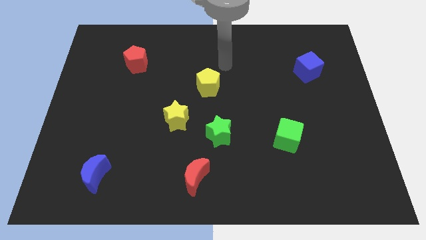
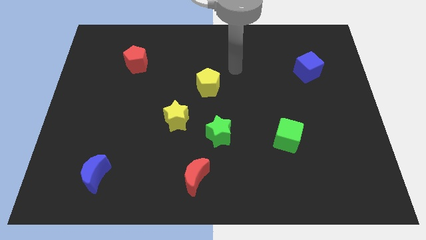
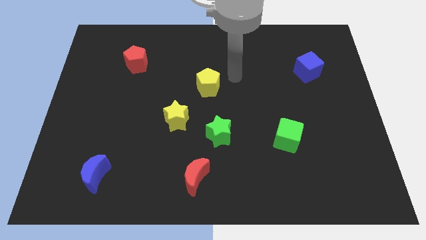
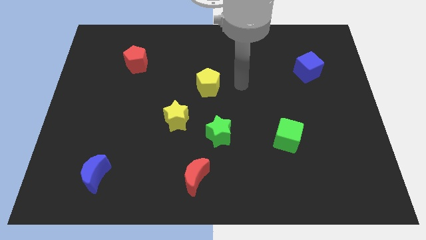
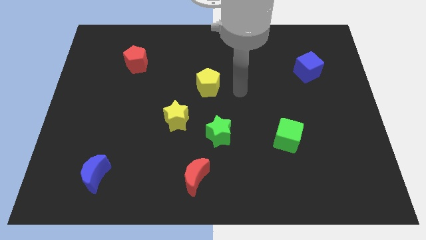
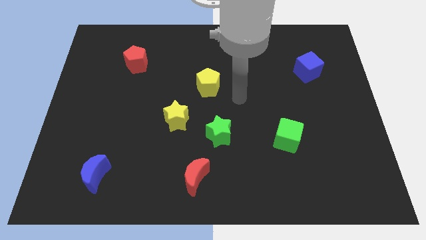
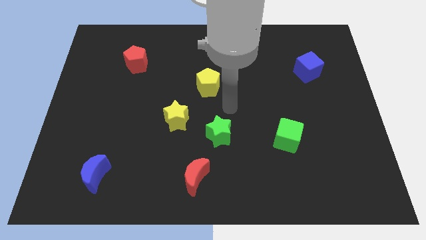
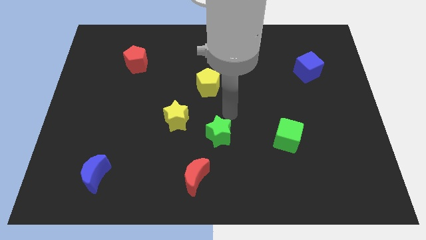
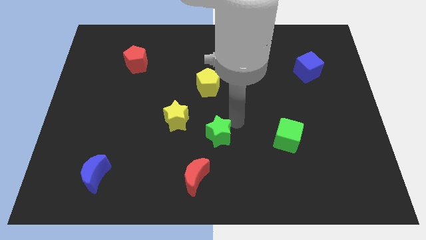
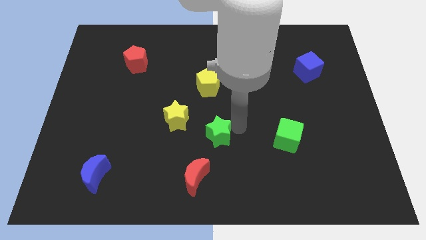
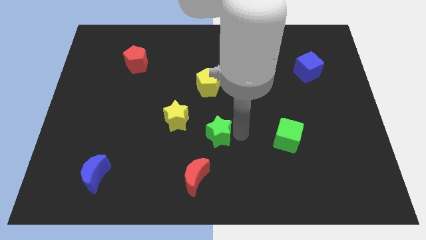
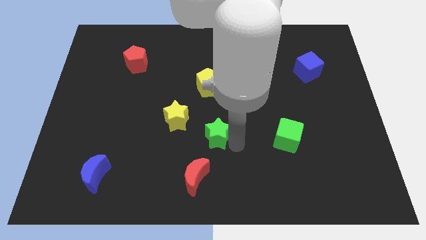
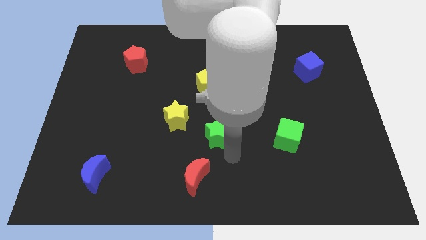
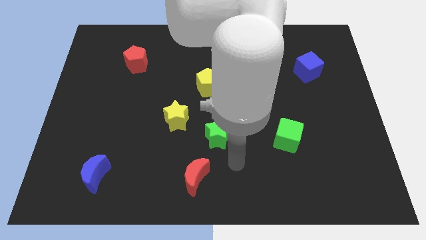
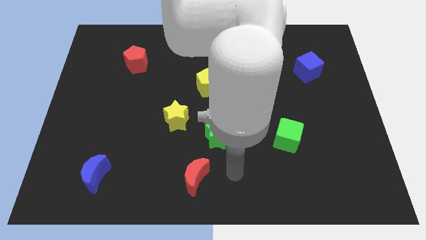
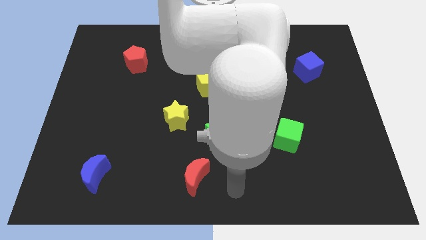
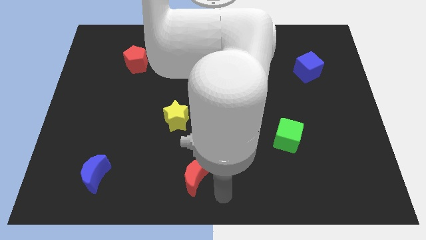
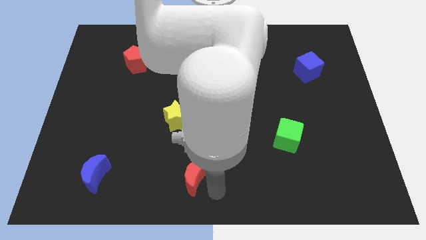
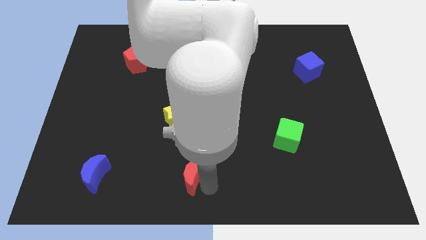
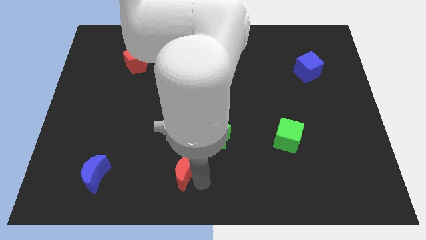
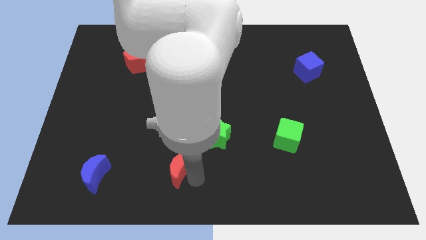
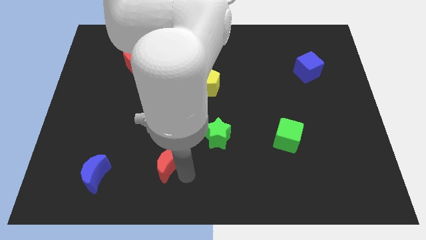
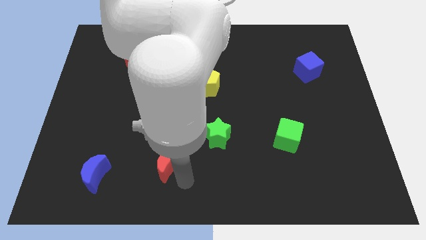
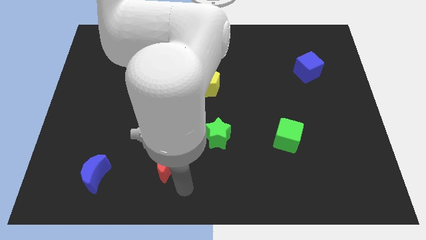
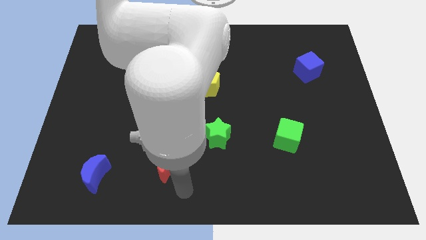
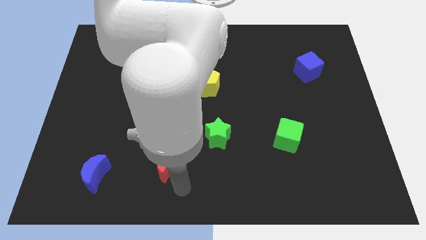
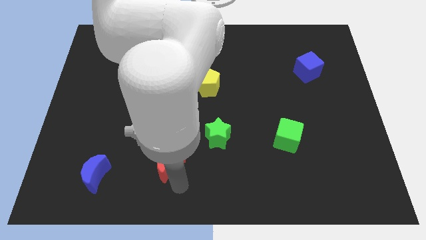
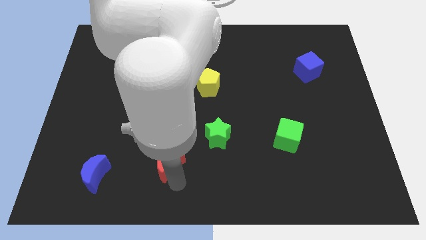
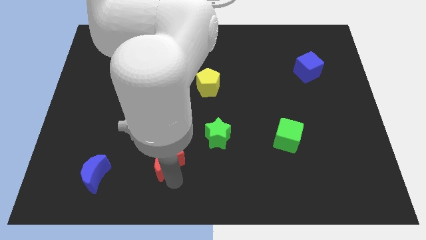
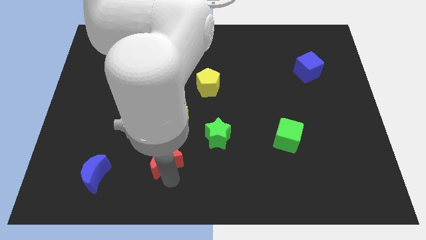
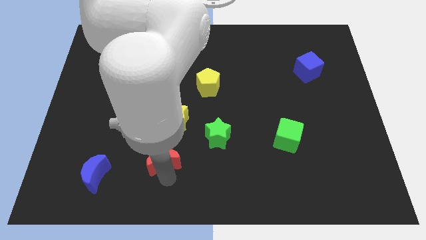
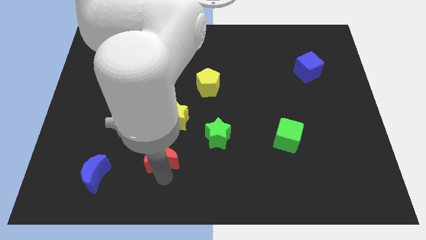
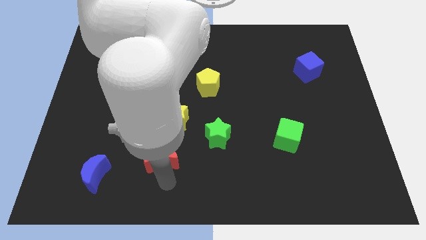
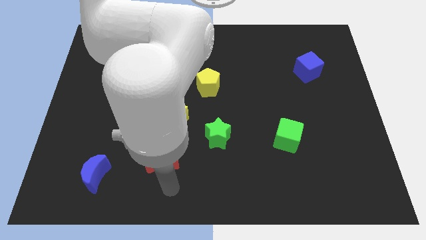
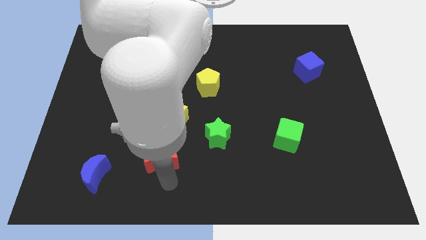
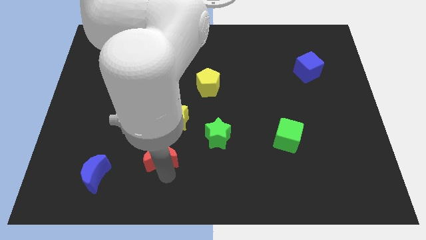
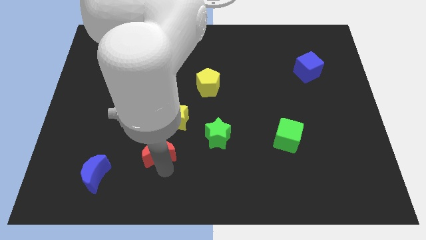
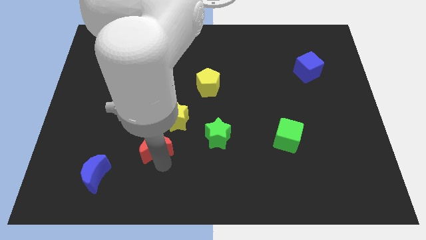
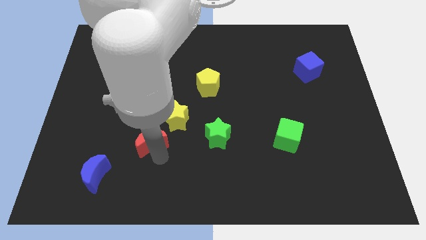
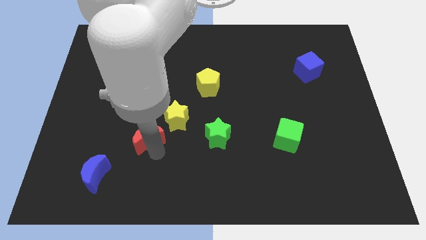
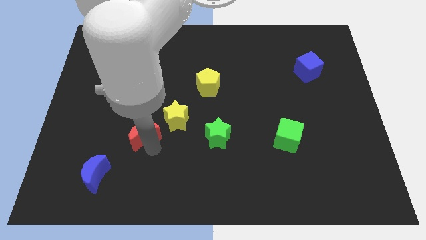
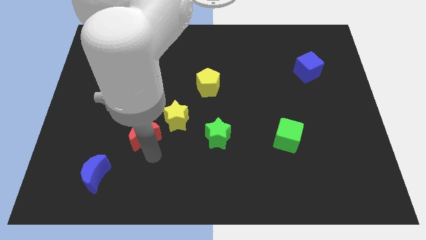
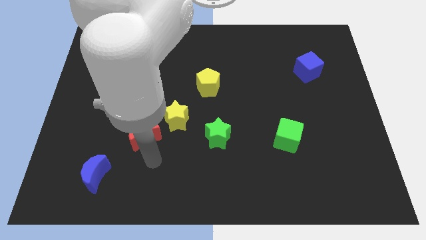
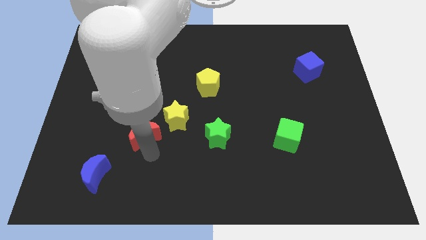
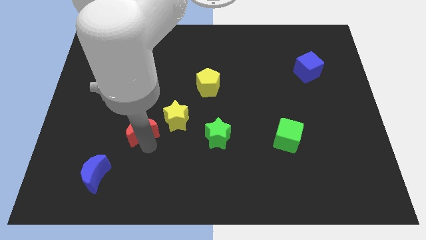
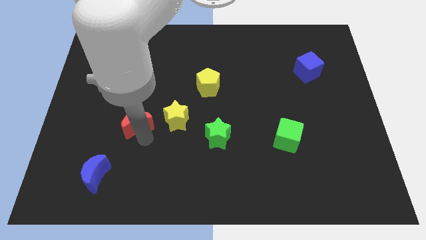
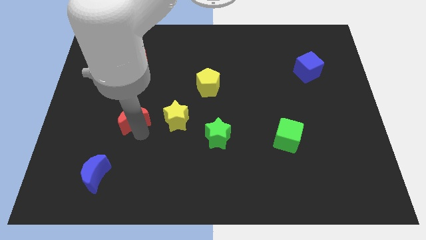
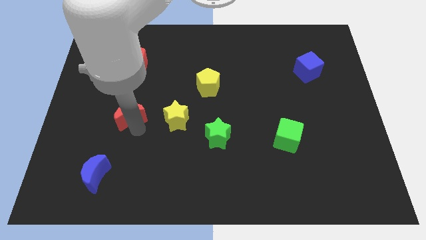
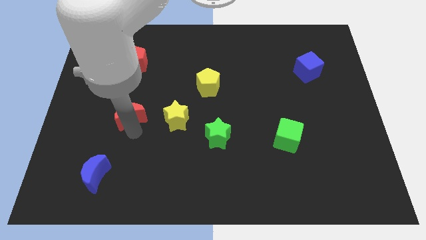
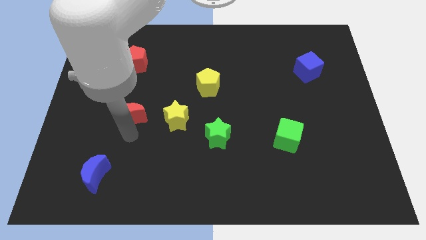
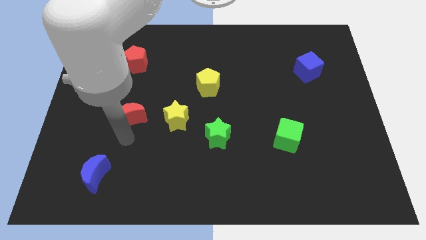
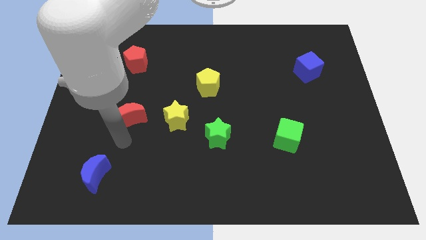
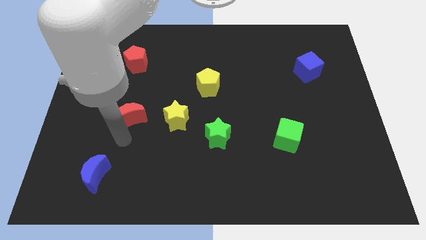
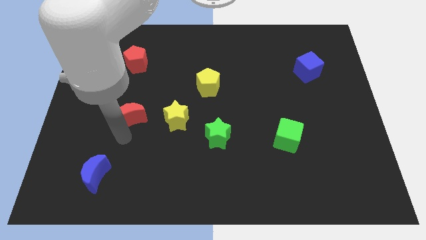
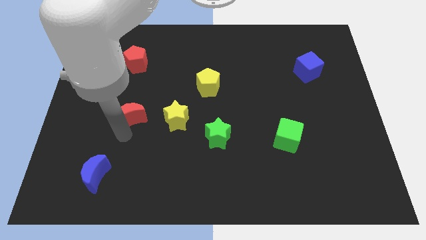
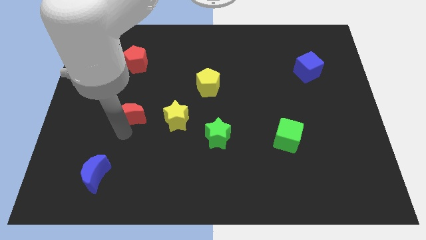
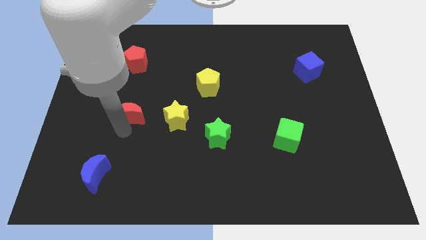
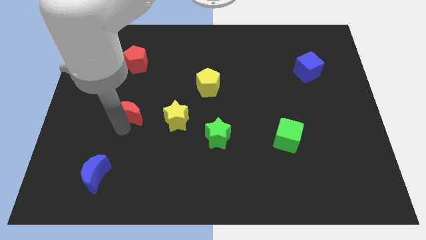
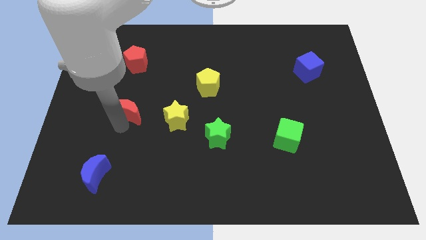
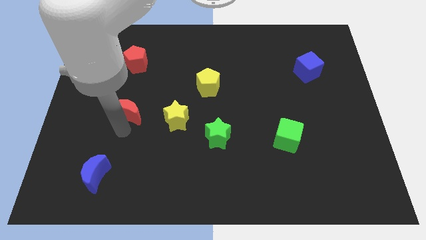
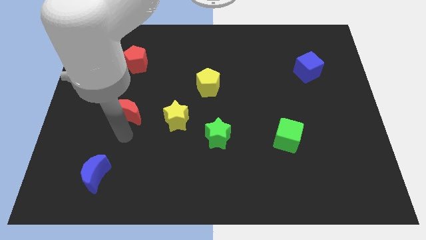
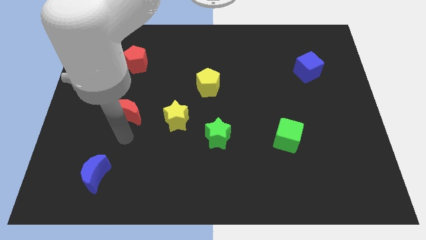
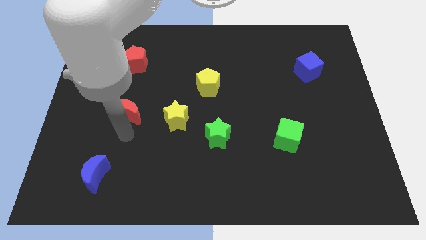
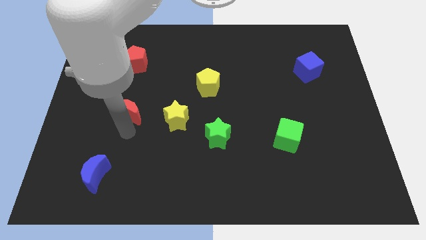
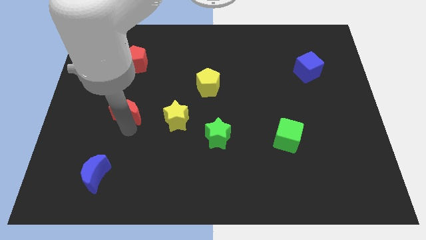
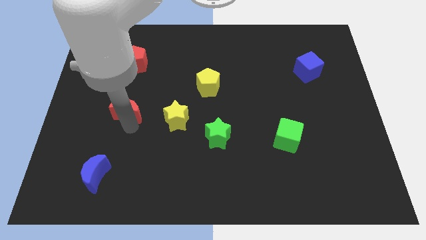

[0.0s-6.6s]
slide the red moon to the bottom side of the red pentagon

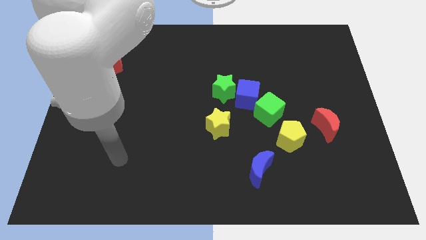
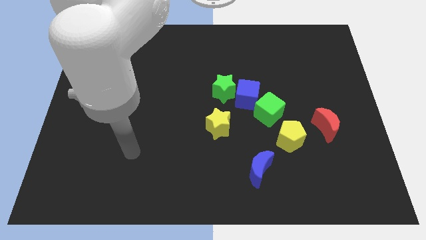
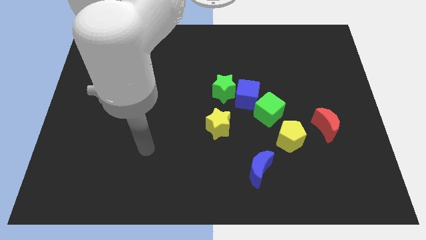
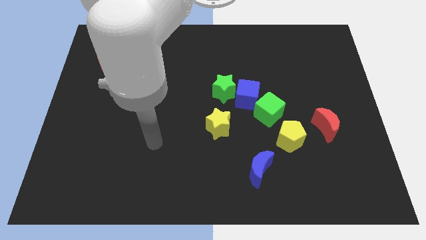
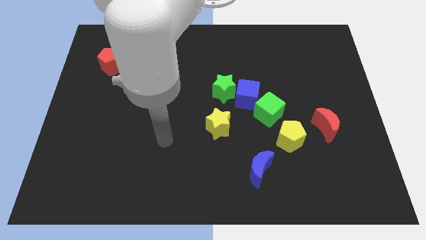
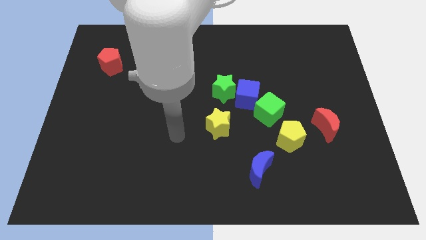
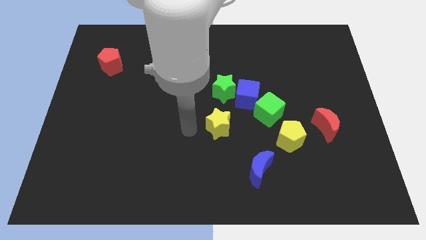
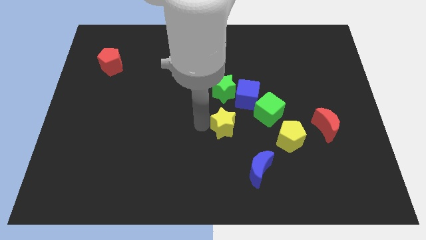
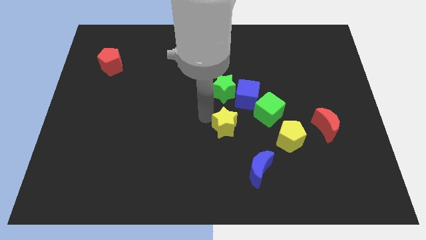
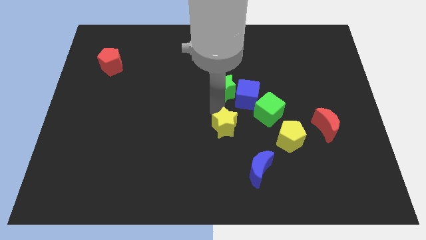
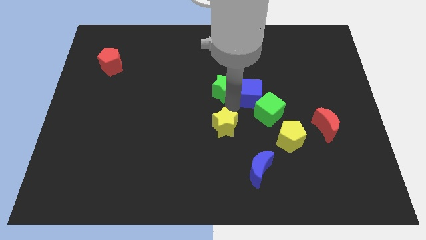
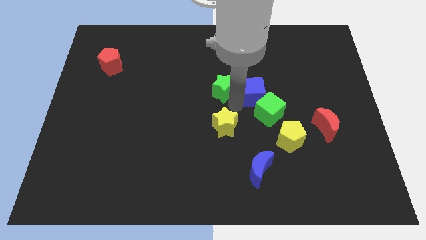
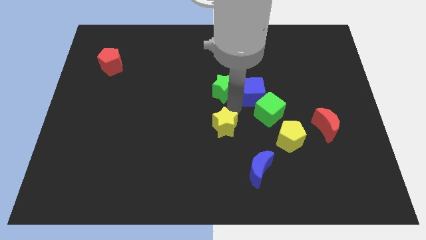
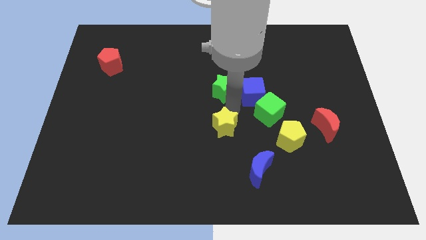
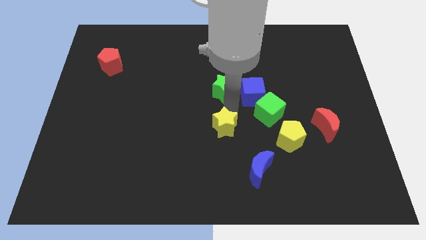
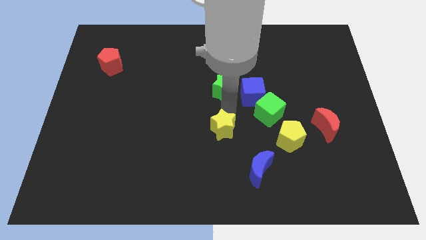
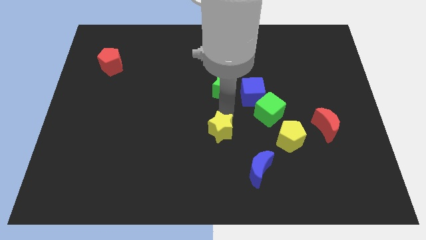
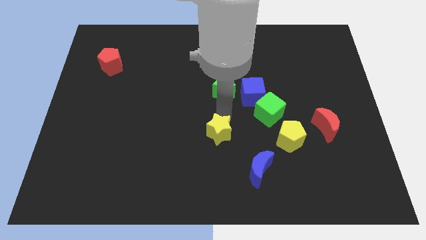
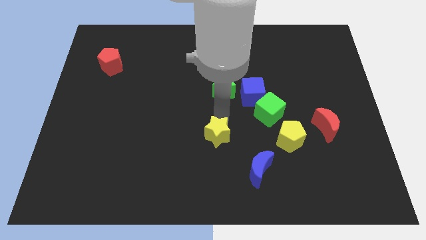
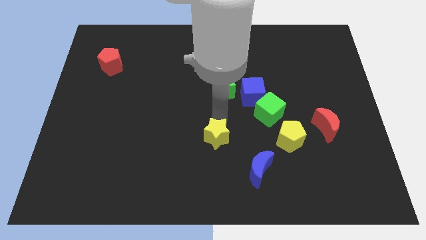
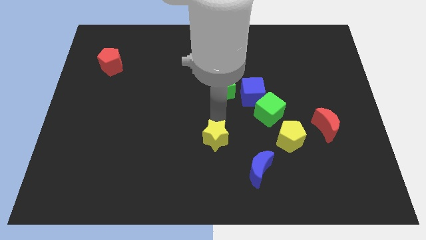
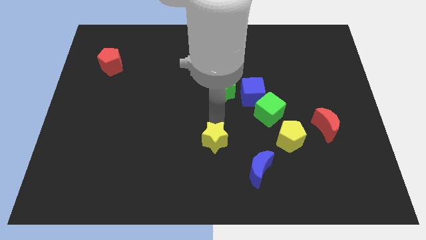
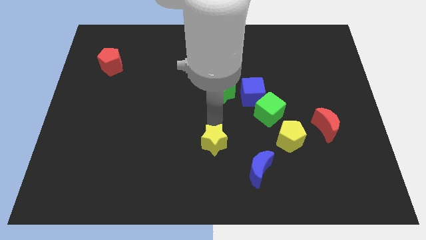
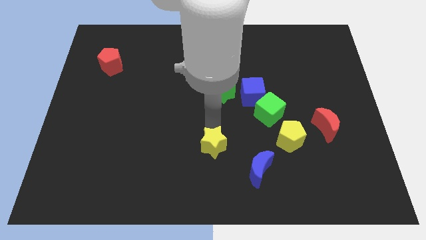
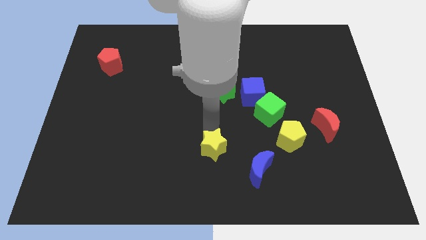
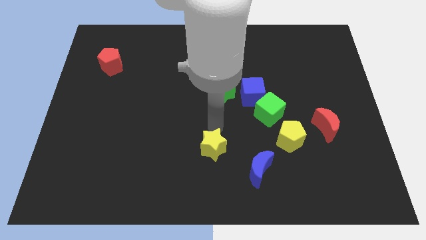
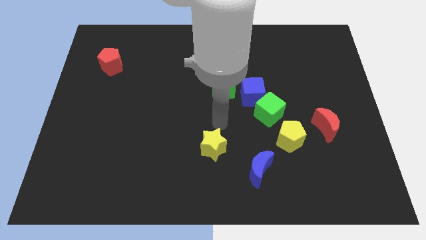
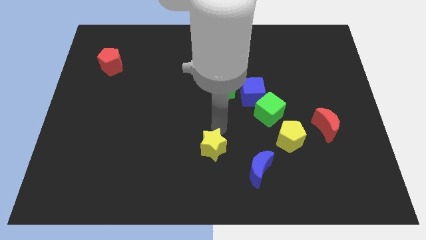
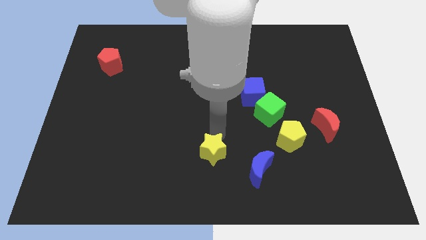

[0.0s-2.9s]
slide the yellow star to the left of the blue moon
